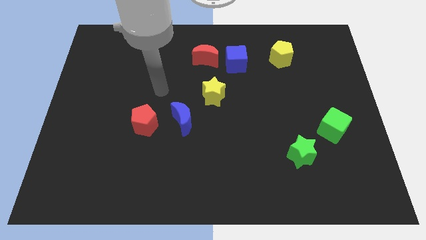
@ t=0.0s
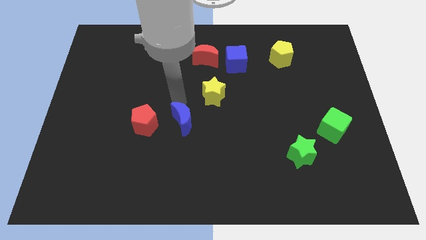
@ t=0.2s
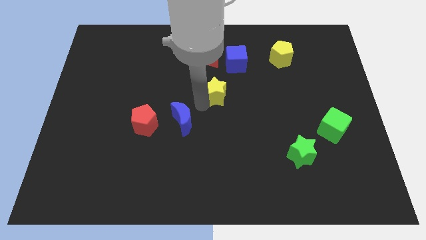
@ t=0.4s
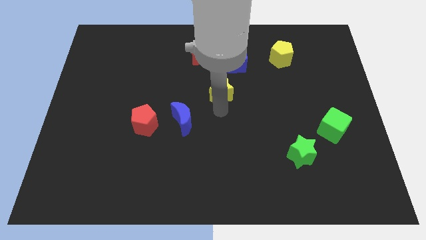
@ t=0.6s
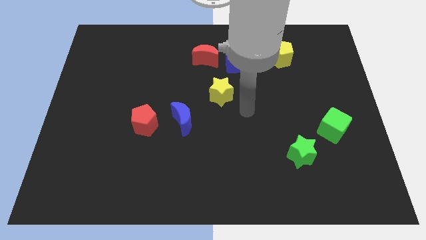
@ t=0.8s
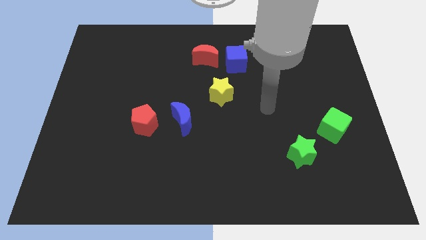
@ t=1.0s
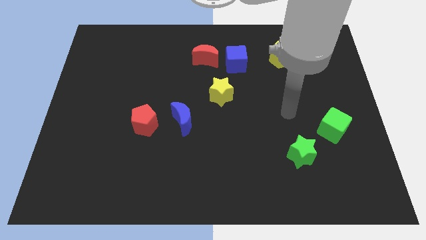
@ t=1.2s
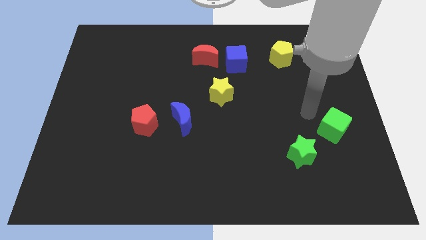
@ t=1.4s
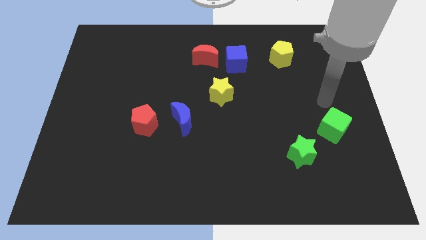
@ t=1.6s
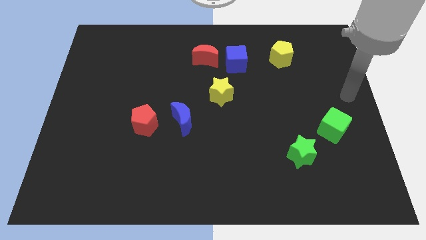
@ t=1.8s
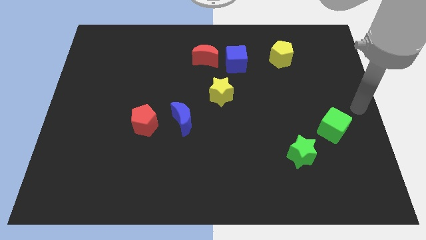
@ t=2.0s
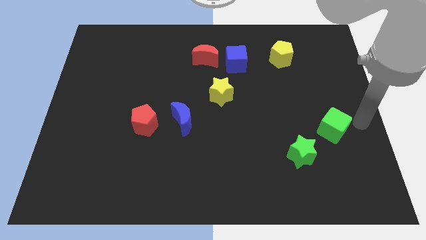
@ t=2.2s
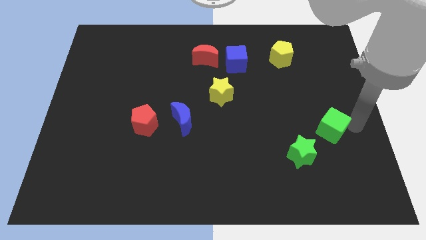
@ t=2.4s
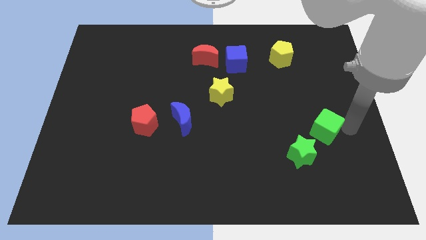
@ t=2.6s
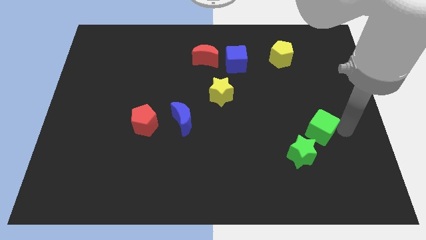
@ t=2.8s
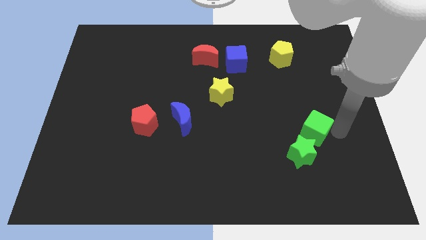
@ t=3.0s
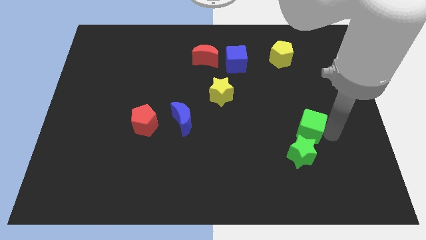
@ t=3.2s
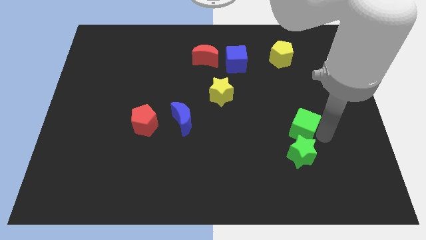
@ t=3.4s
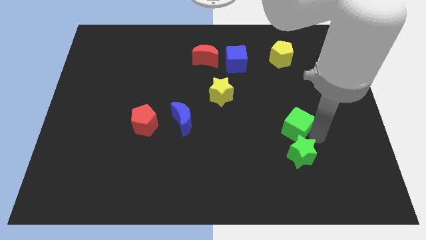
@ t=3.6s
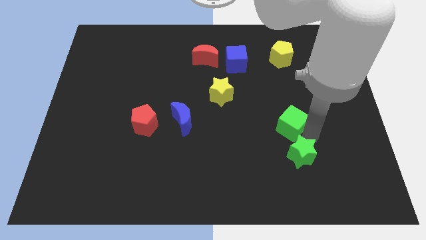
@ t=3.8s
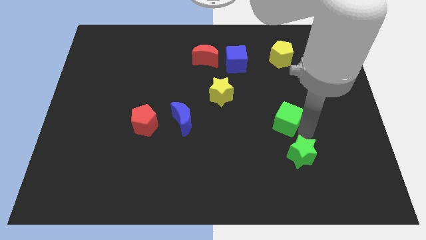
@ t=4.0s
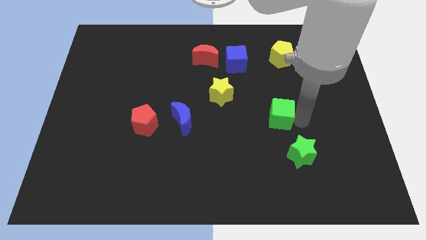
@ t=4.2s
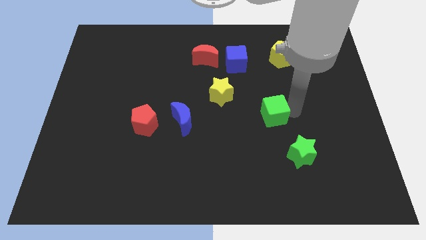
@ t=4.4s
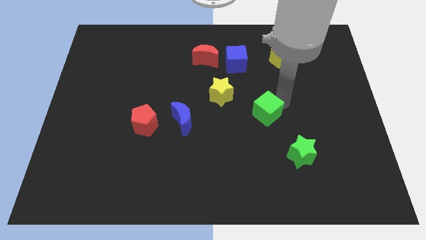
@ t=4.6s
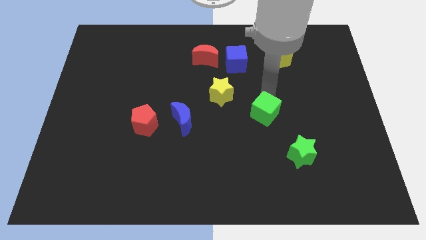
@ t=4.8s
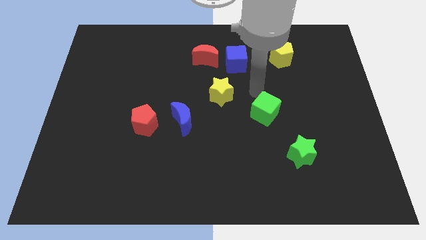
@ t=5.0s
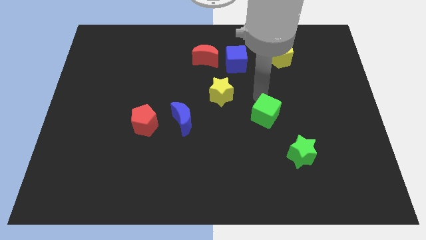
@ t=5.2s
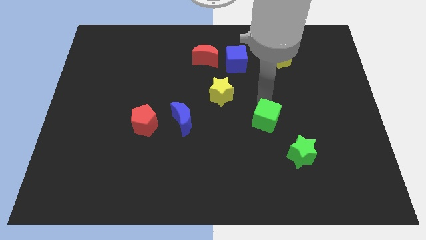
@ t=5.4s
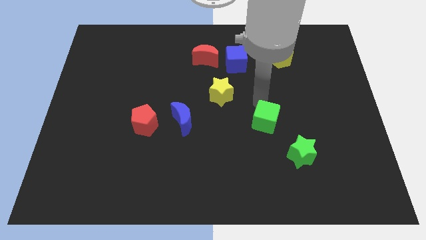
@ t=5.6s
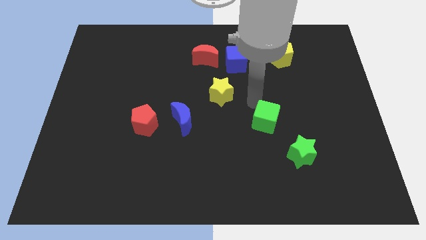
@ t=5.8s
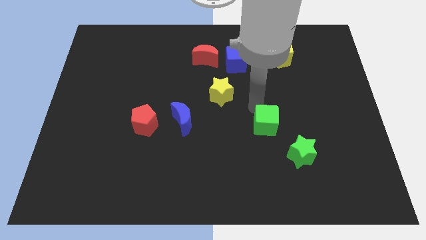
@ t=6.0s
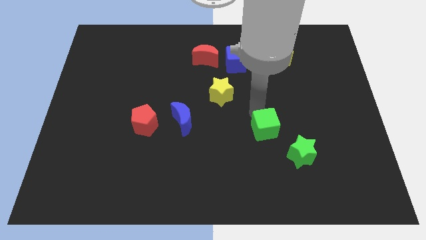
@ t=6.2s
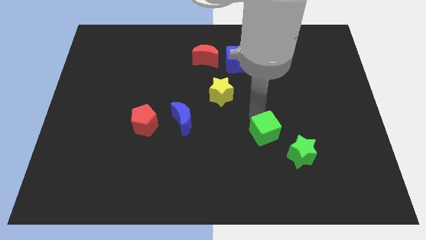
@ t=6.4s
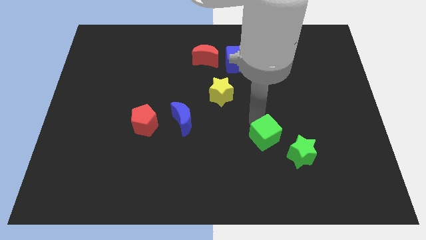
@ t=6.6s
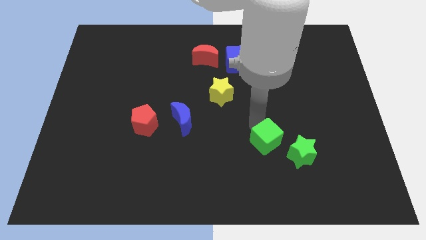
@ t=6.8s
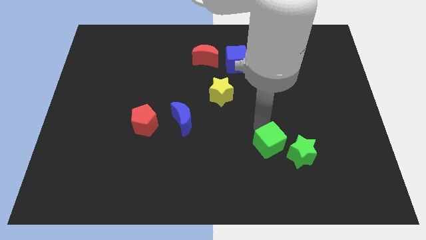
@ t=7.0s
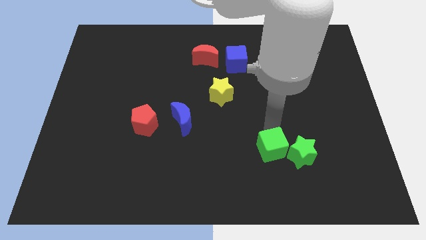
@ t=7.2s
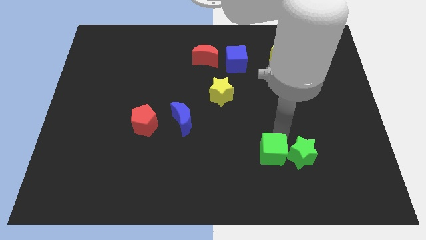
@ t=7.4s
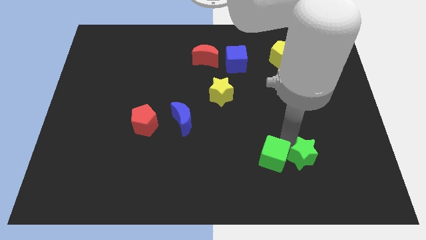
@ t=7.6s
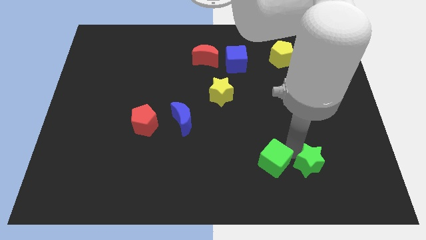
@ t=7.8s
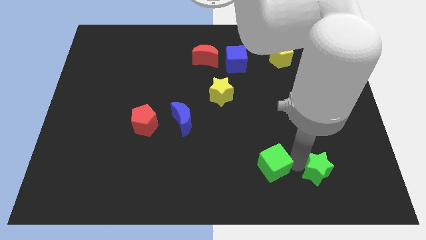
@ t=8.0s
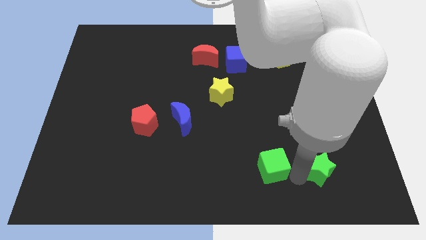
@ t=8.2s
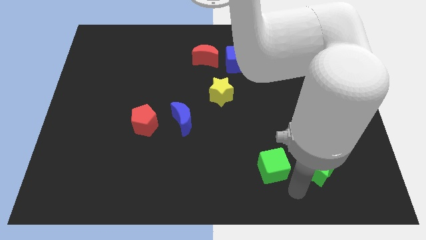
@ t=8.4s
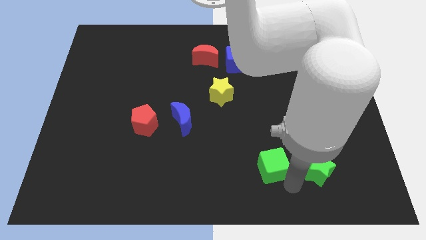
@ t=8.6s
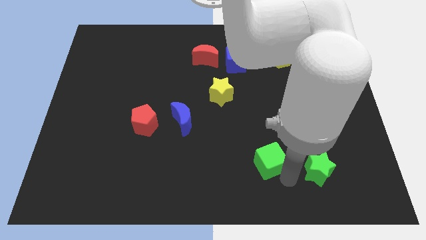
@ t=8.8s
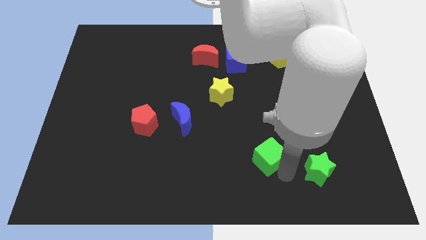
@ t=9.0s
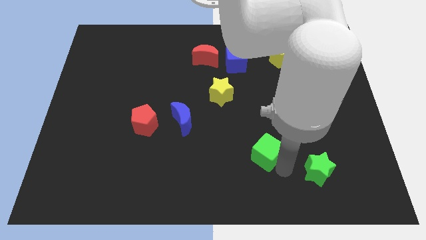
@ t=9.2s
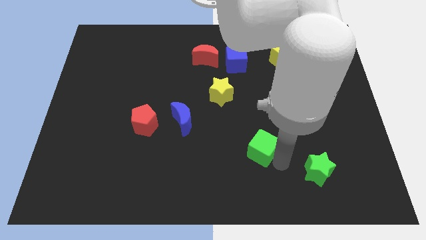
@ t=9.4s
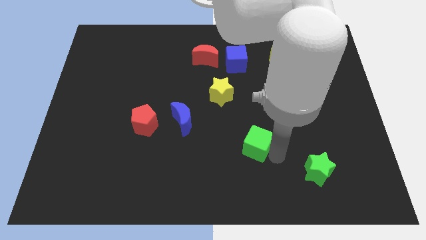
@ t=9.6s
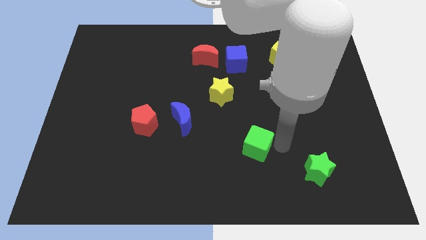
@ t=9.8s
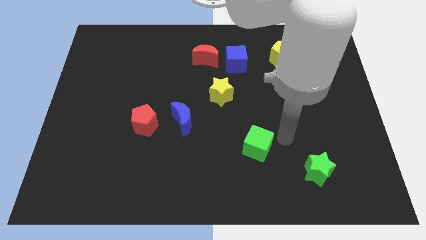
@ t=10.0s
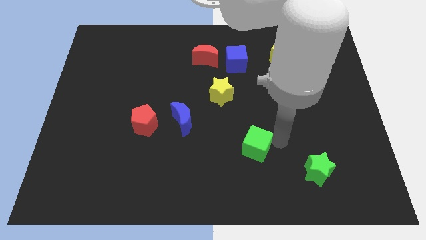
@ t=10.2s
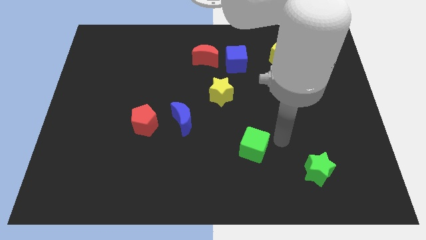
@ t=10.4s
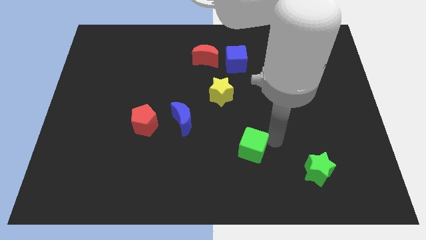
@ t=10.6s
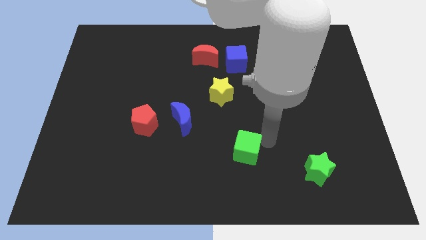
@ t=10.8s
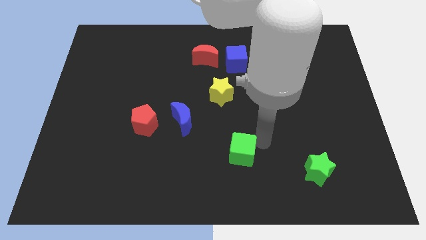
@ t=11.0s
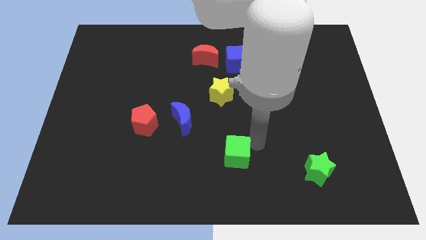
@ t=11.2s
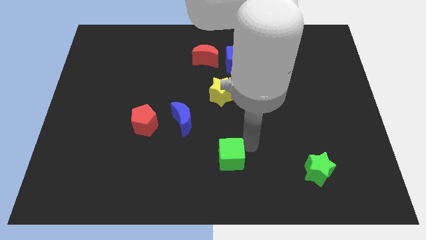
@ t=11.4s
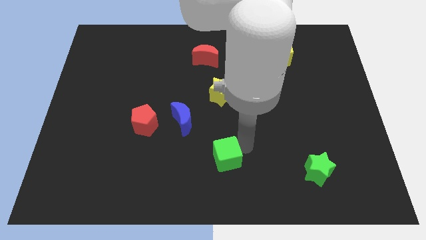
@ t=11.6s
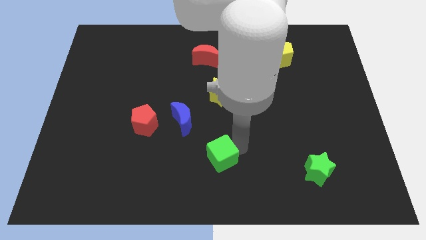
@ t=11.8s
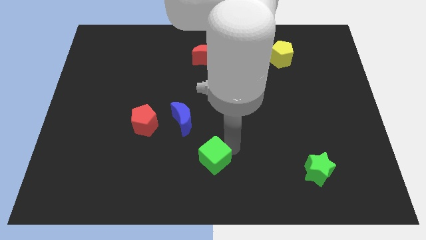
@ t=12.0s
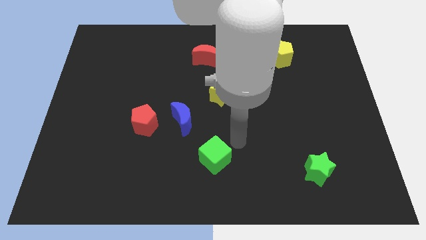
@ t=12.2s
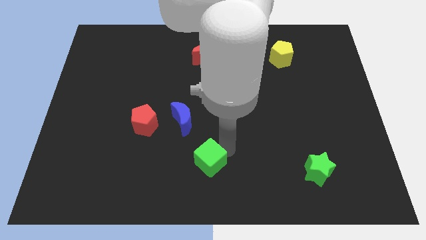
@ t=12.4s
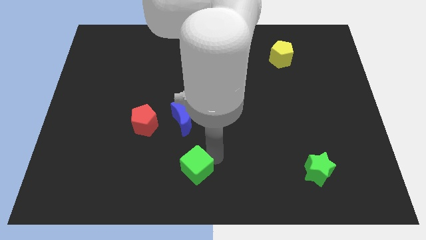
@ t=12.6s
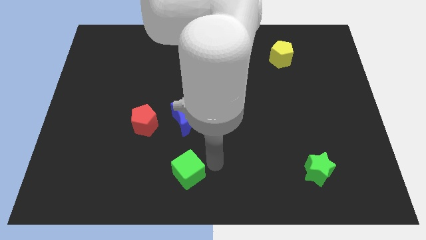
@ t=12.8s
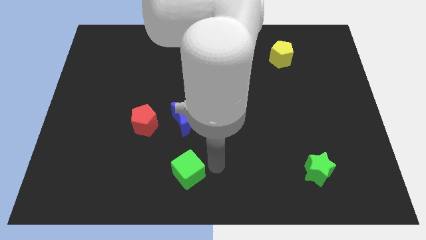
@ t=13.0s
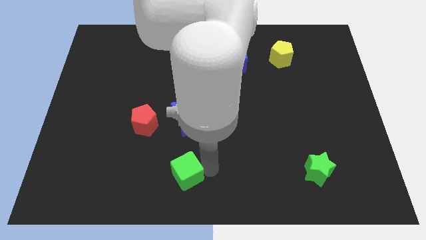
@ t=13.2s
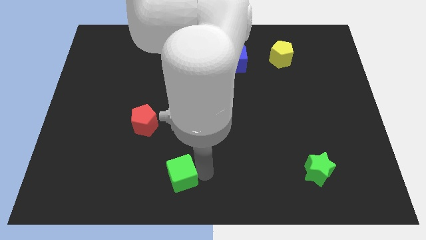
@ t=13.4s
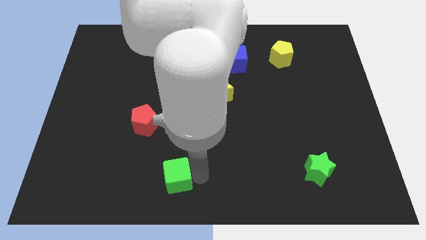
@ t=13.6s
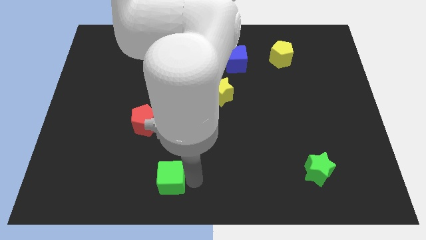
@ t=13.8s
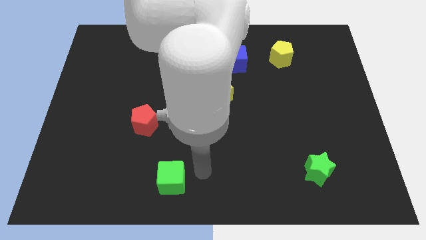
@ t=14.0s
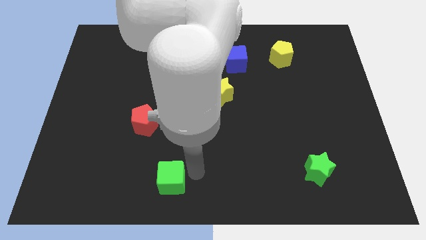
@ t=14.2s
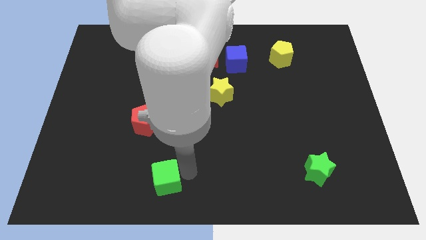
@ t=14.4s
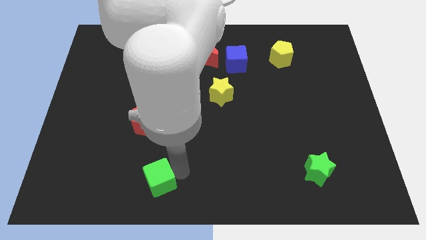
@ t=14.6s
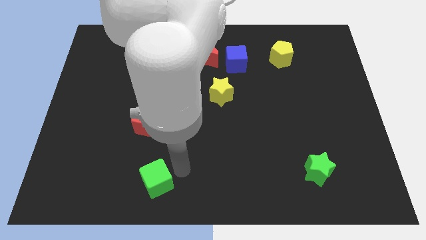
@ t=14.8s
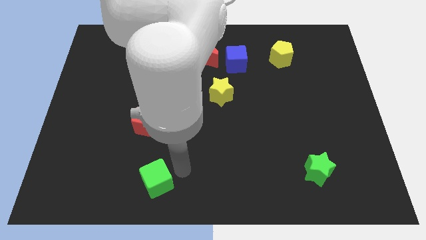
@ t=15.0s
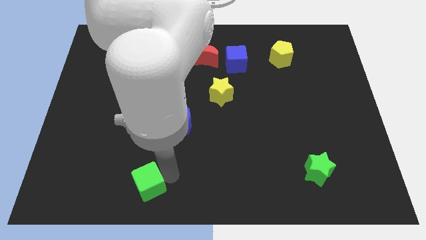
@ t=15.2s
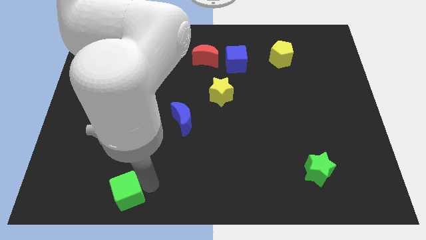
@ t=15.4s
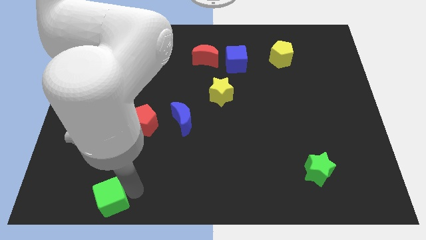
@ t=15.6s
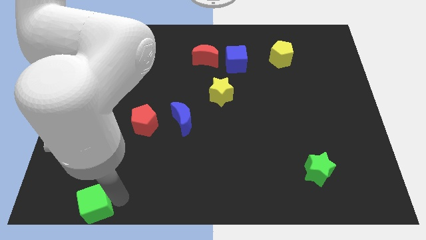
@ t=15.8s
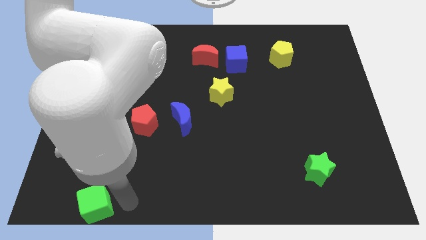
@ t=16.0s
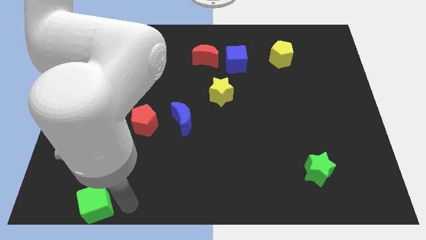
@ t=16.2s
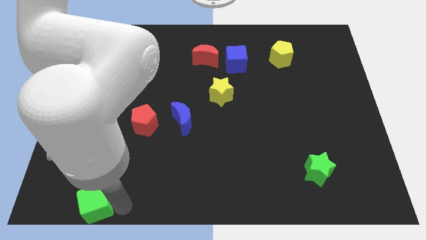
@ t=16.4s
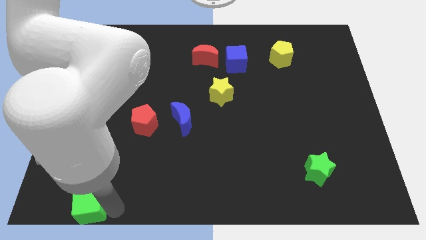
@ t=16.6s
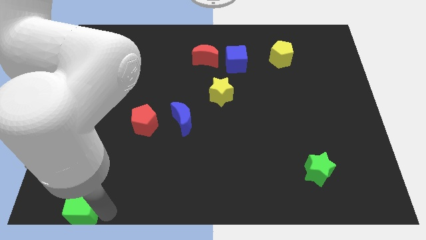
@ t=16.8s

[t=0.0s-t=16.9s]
move the green cube to the bottom left corner
